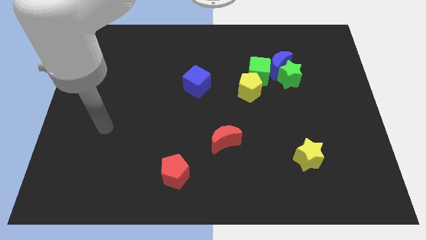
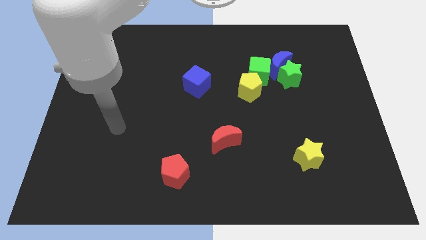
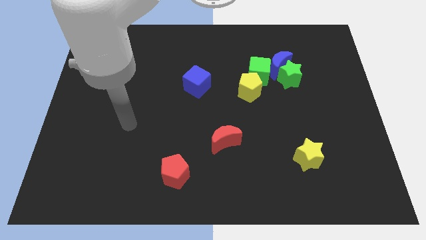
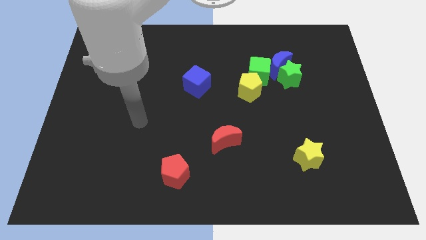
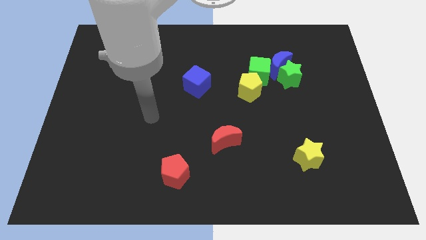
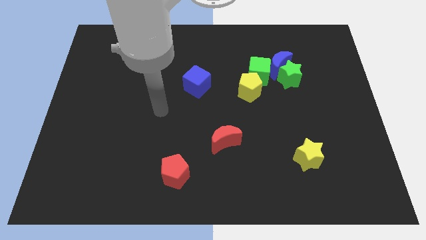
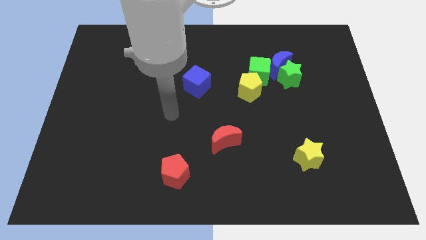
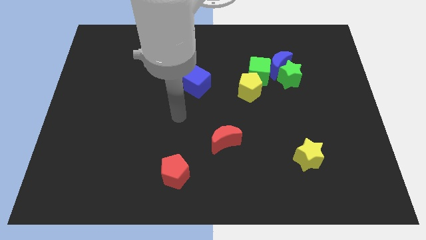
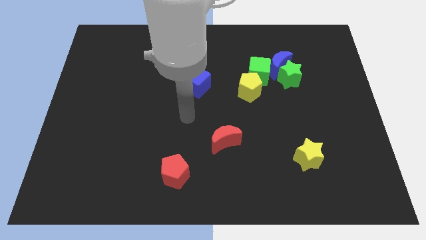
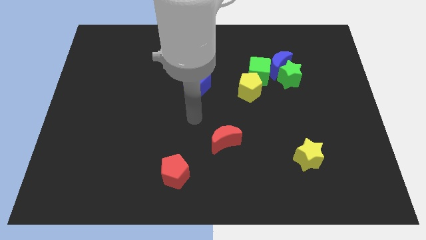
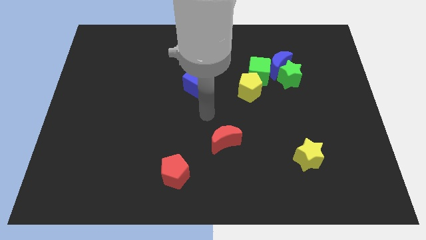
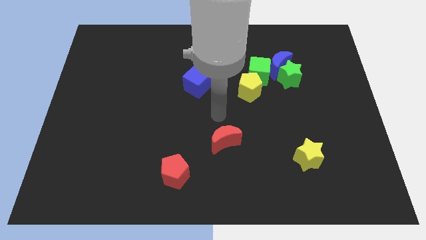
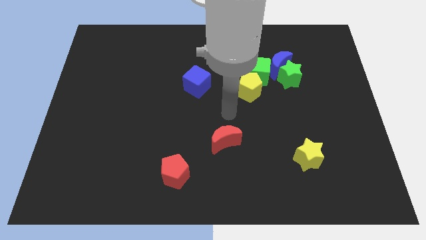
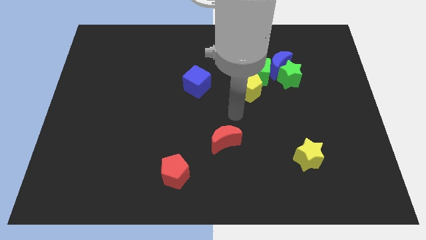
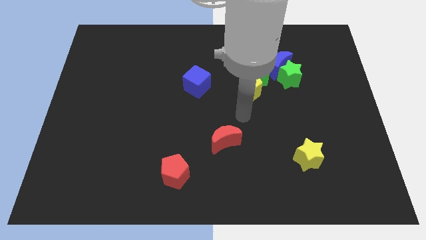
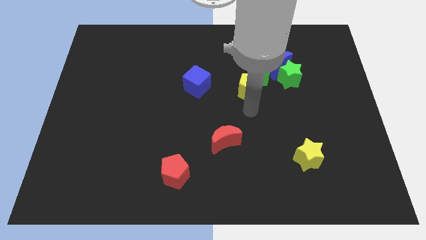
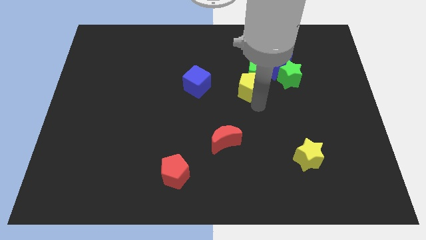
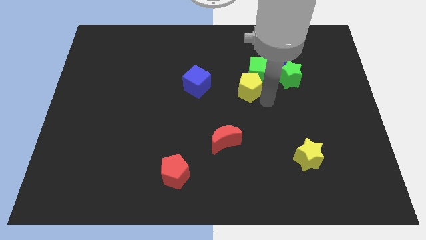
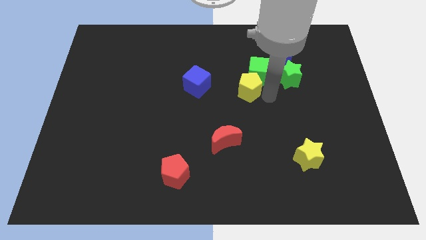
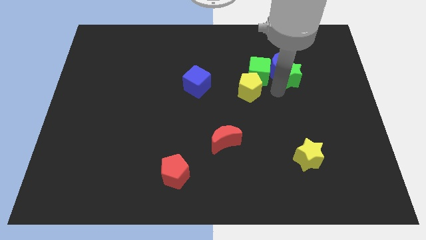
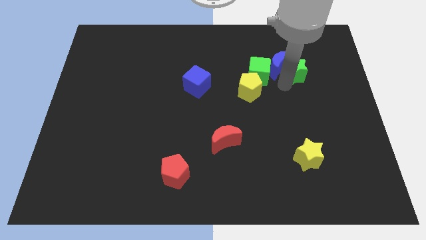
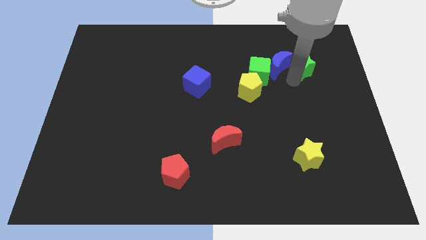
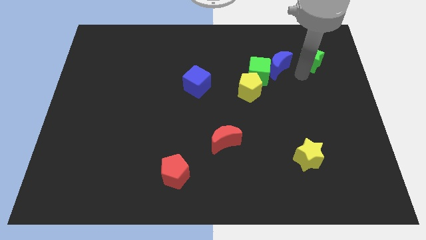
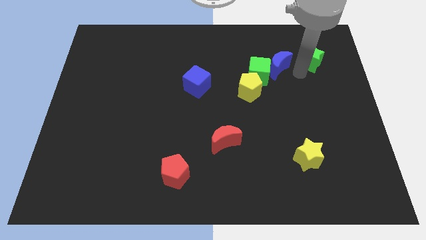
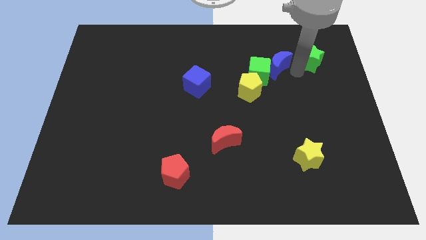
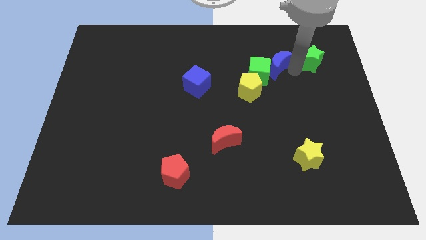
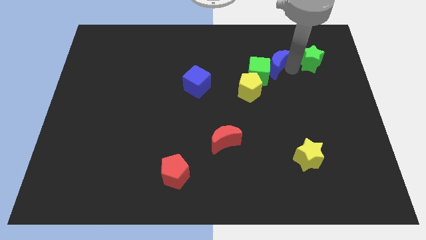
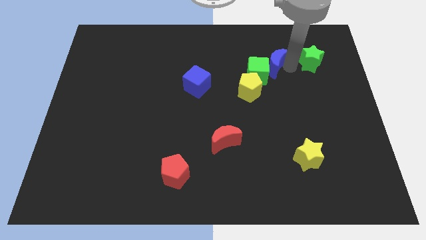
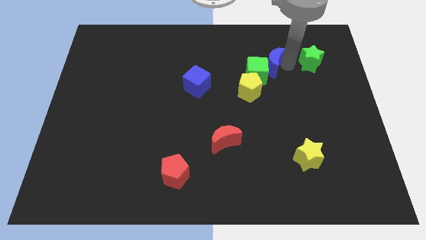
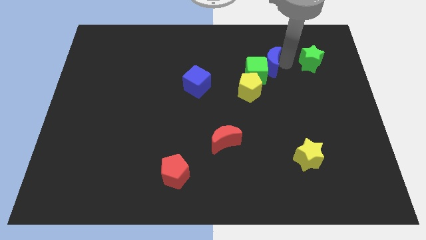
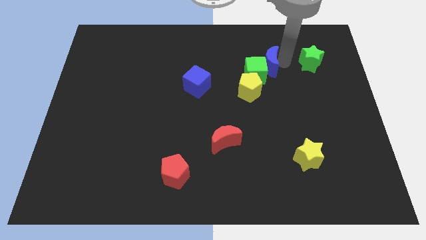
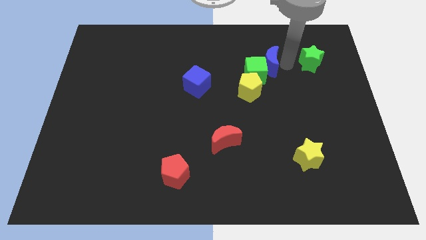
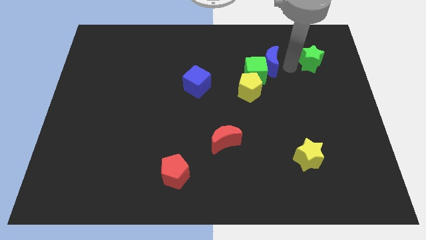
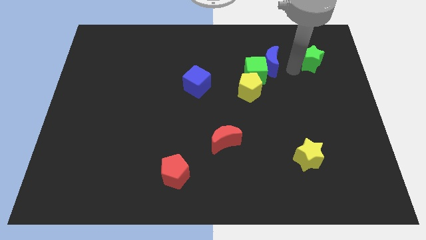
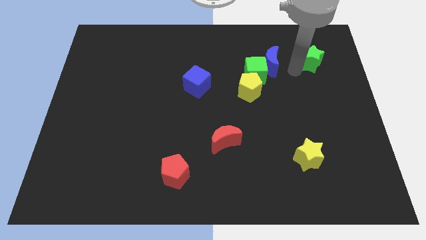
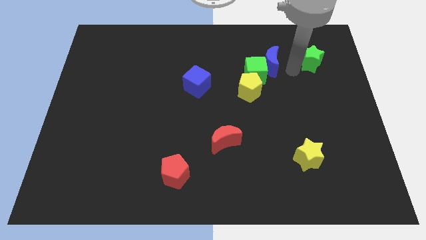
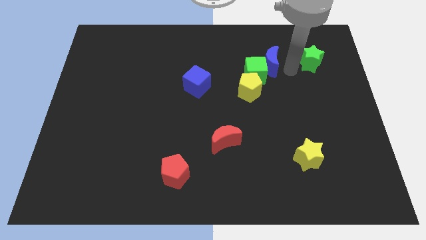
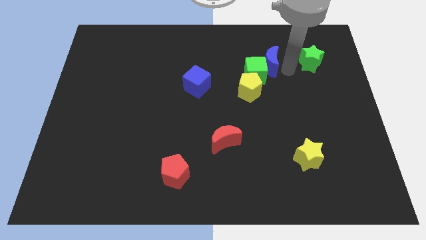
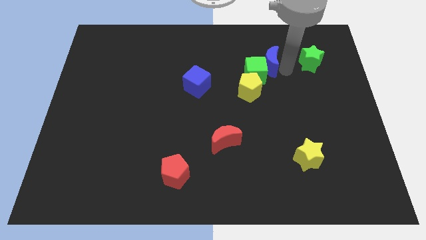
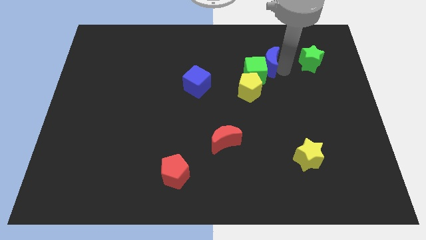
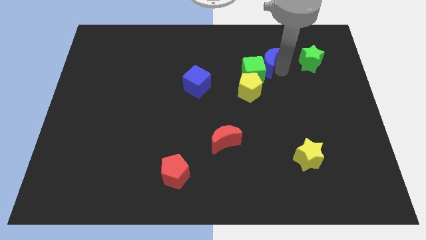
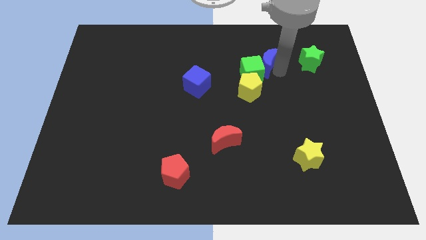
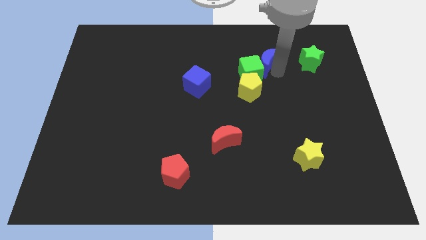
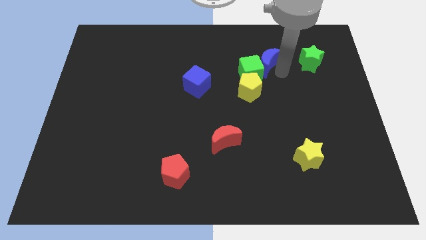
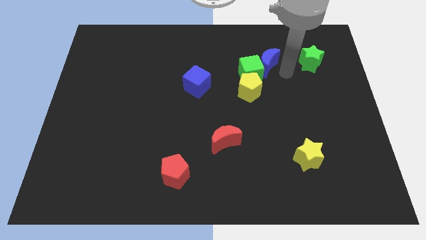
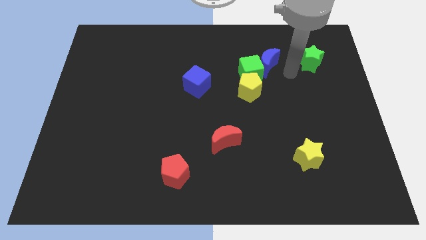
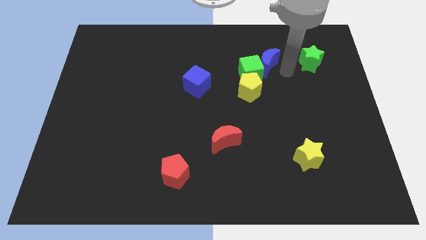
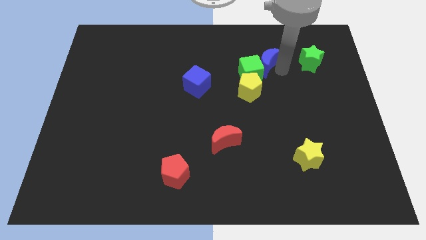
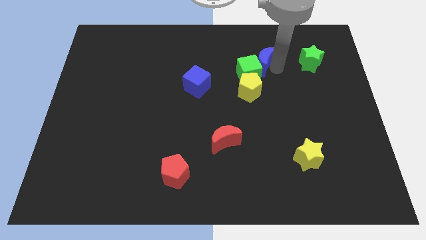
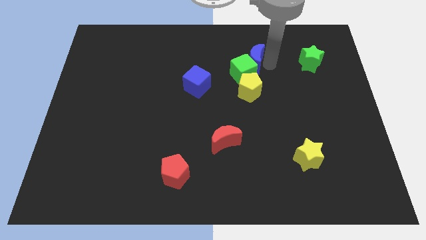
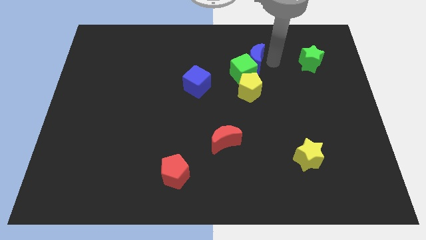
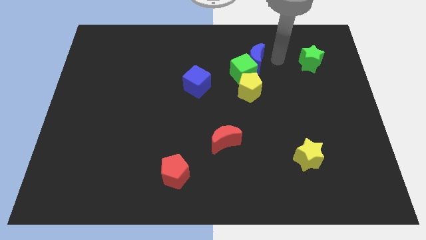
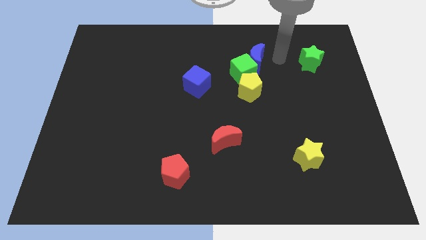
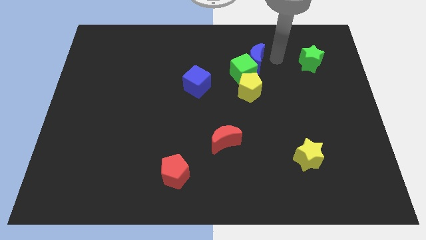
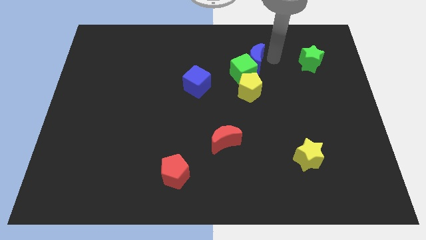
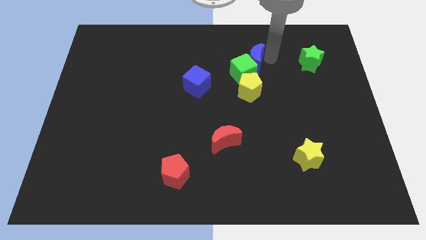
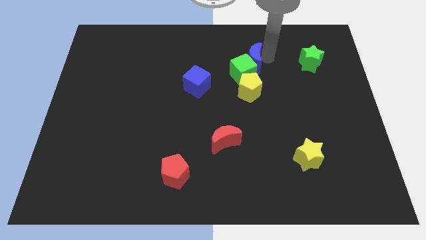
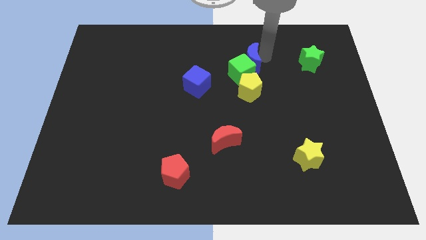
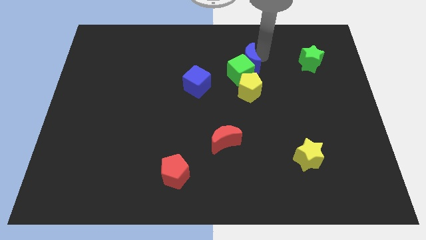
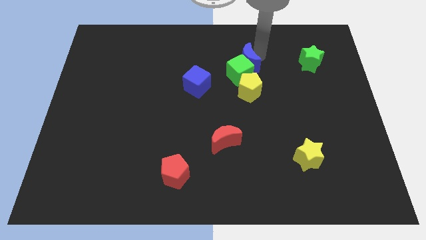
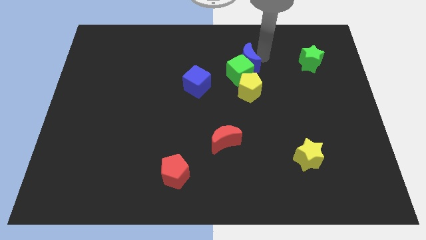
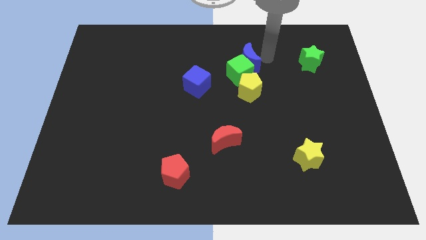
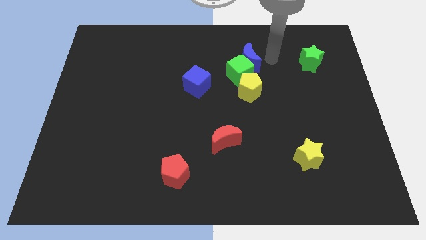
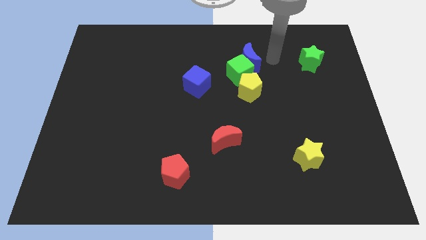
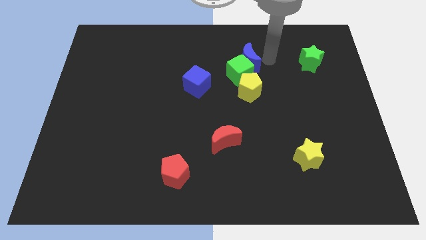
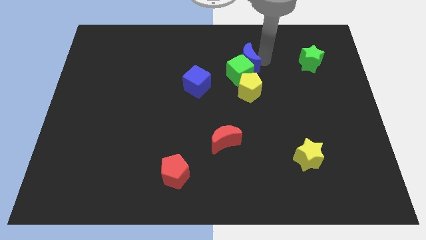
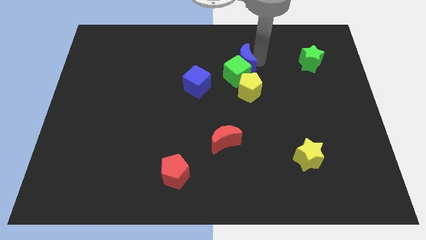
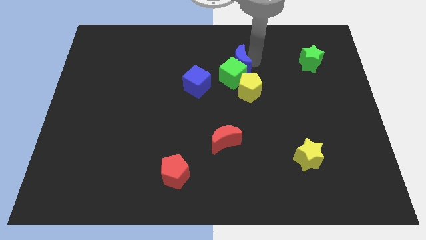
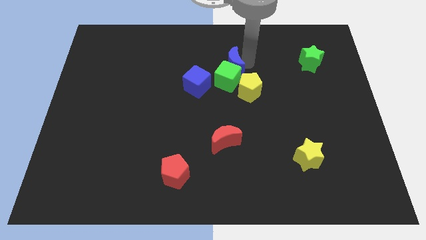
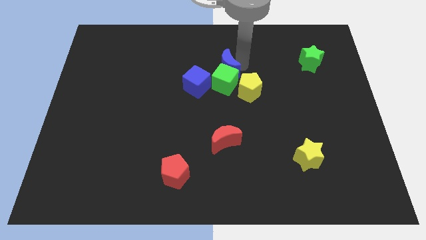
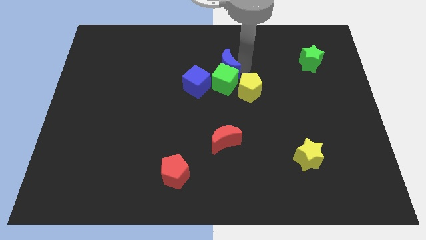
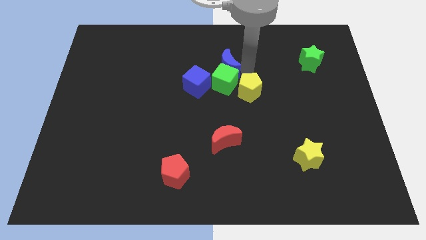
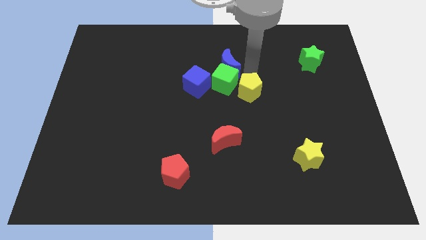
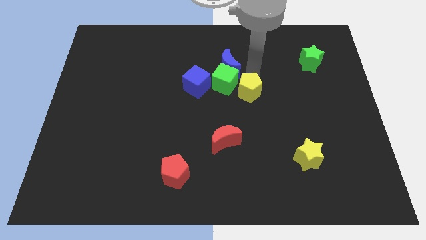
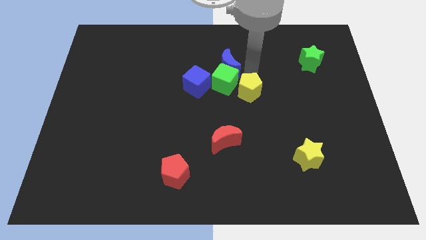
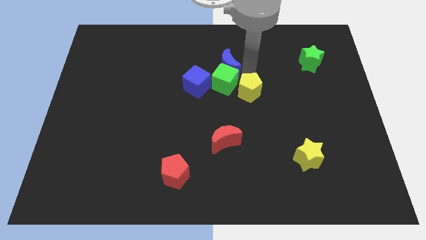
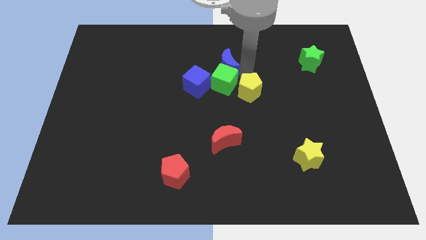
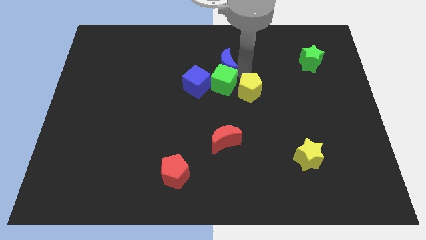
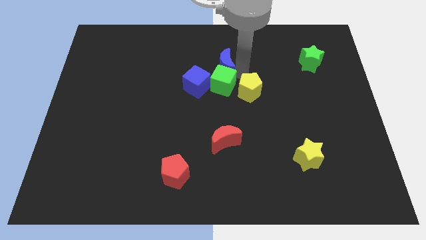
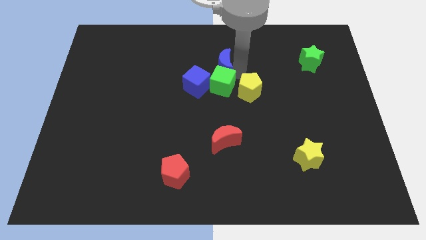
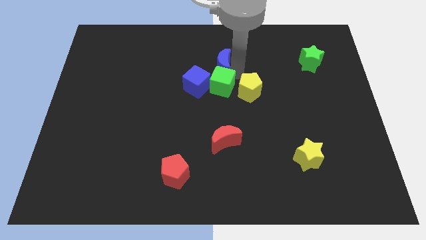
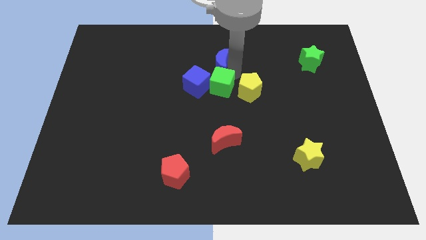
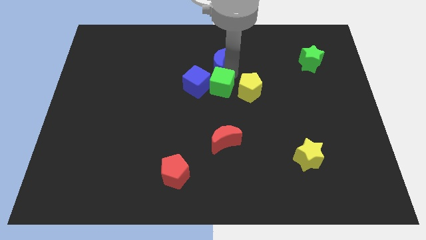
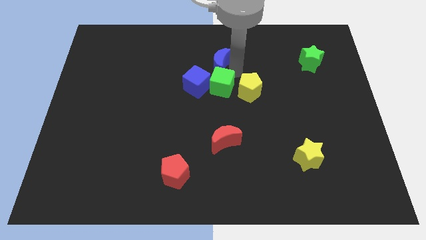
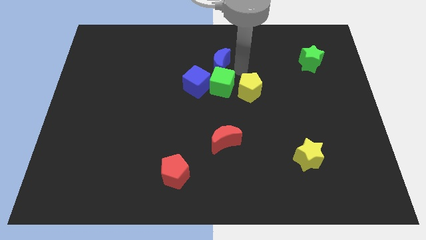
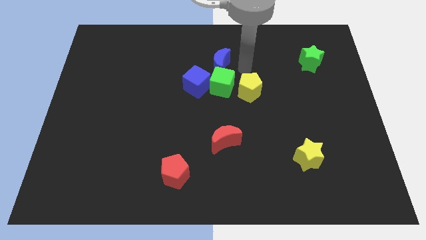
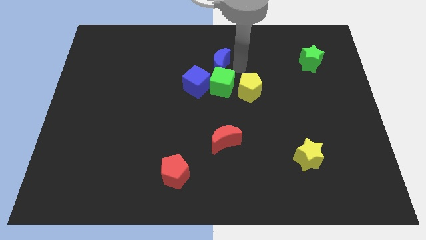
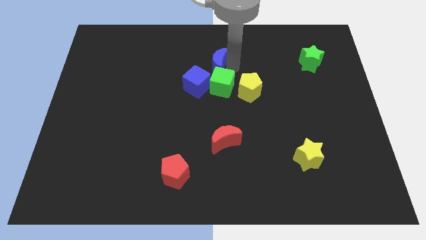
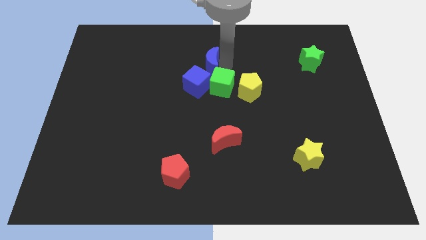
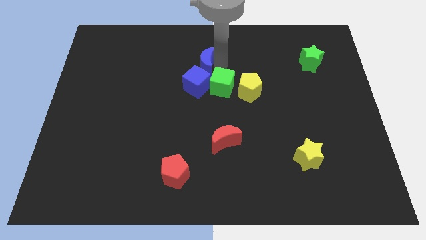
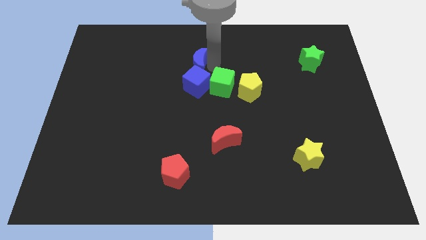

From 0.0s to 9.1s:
push the blue moon left
